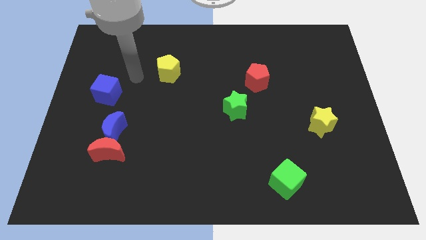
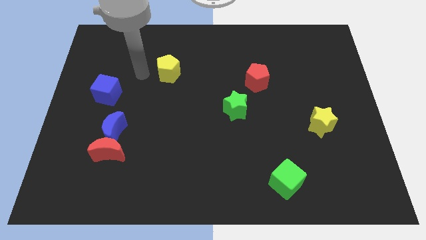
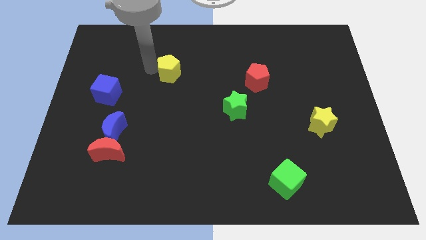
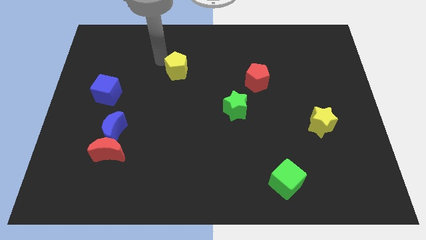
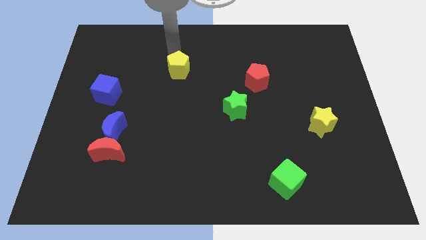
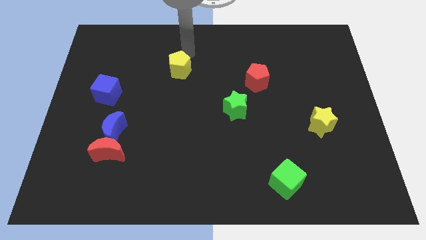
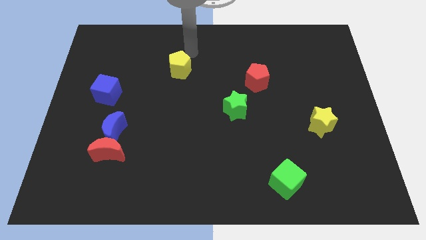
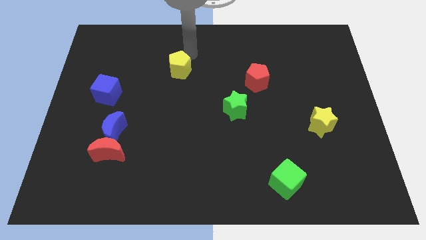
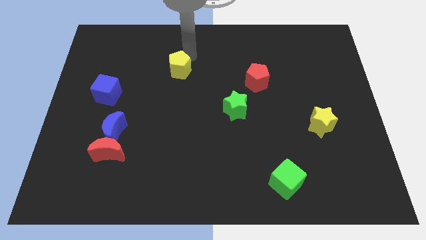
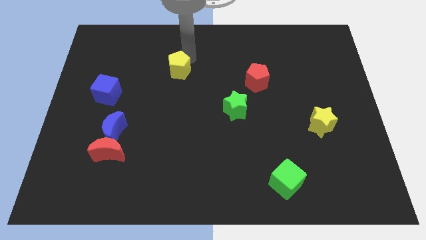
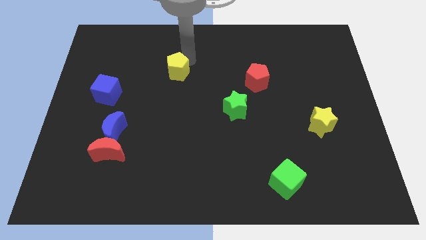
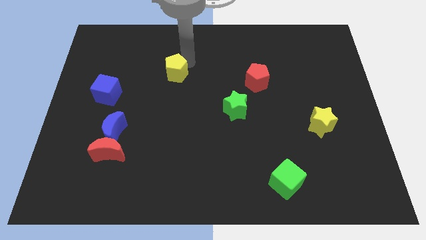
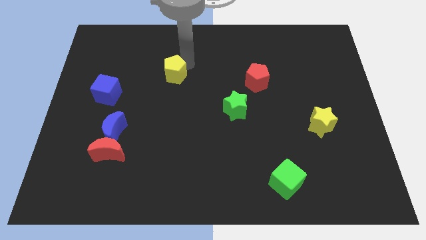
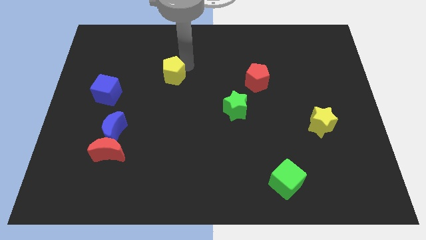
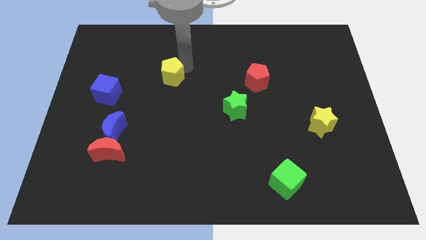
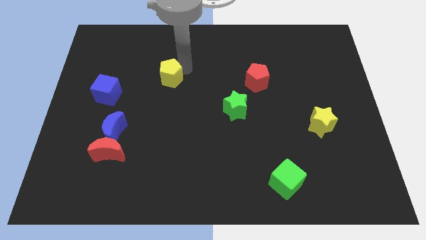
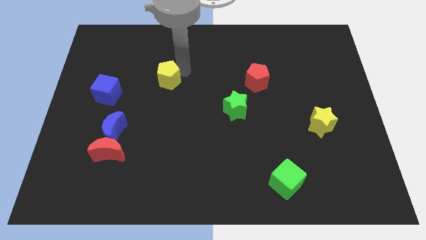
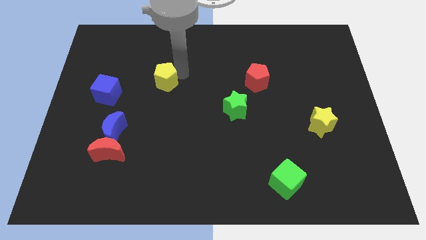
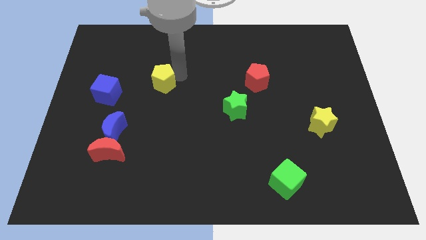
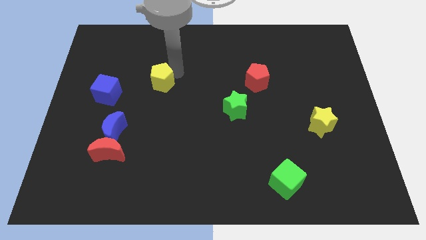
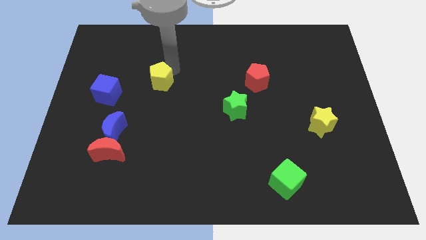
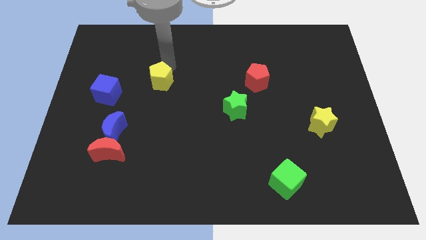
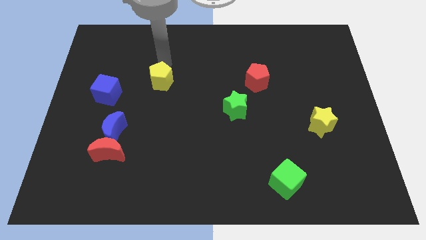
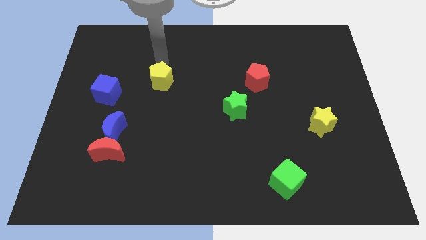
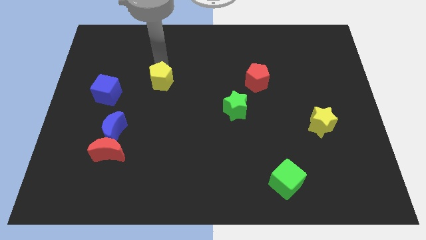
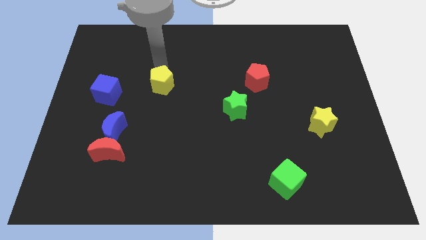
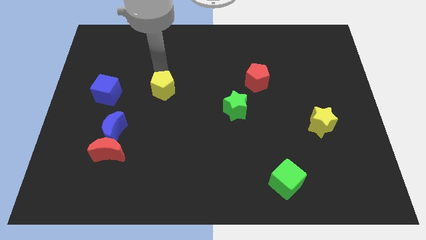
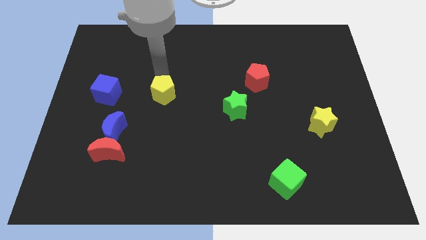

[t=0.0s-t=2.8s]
slightly slide the yellow pentagon downwards

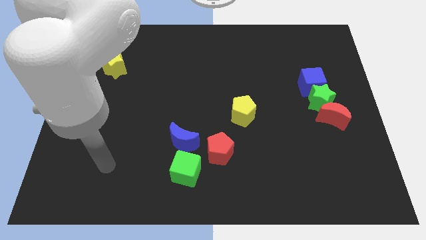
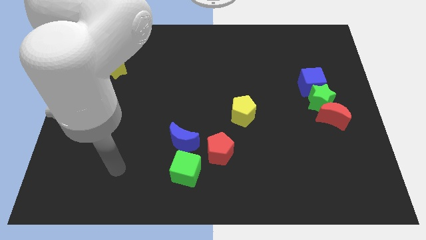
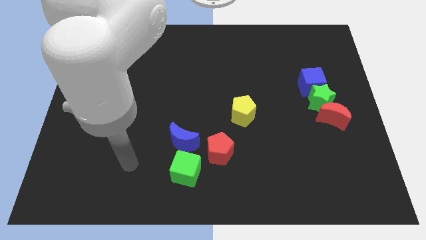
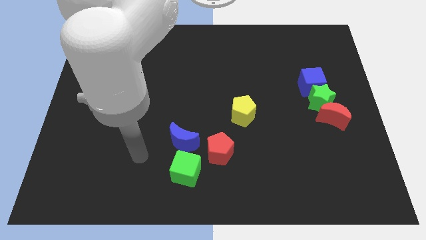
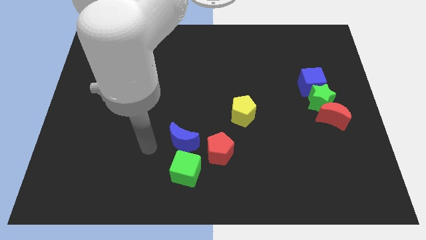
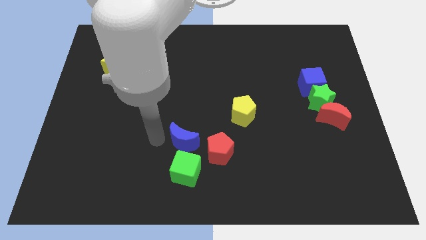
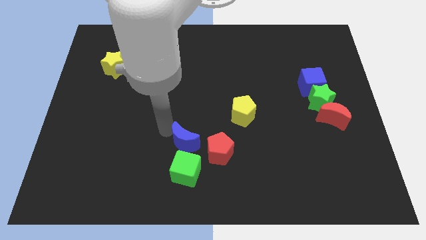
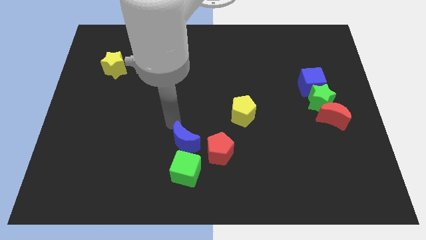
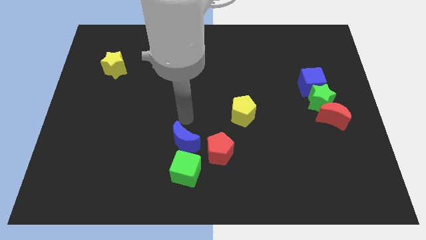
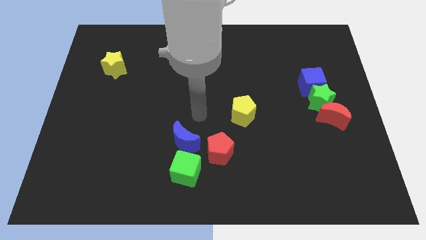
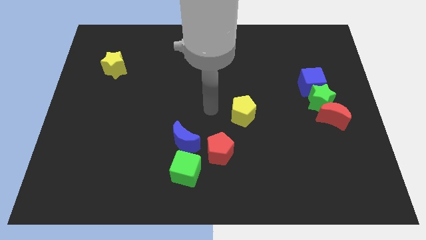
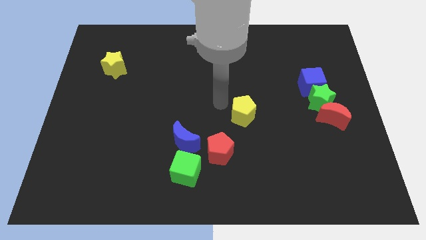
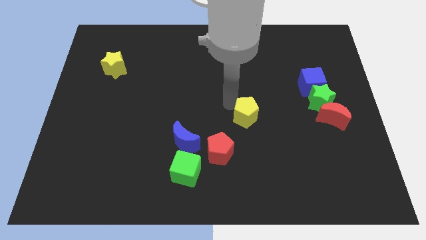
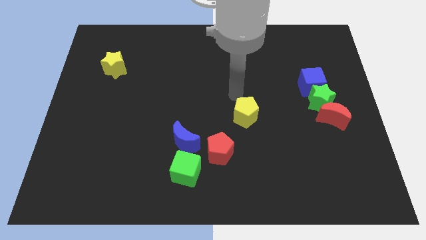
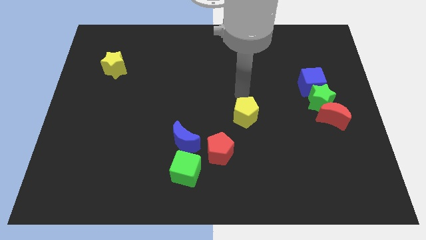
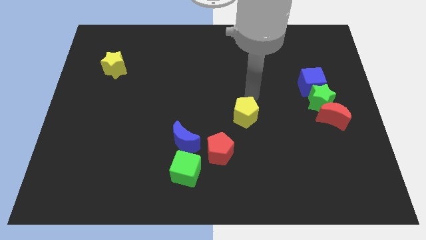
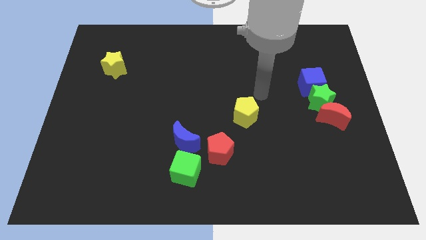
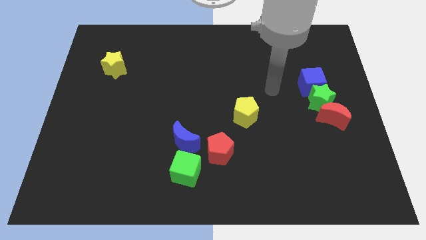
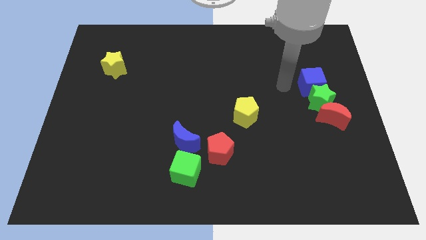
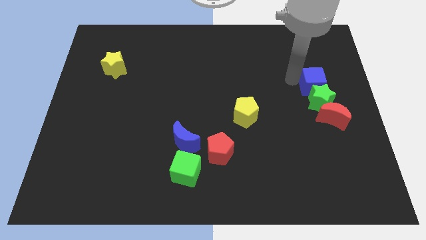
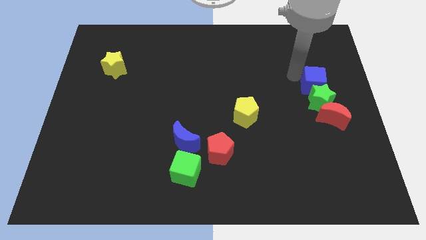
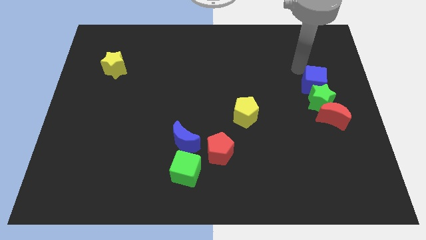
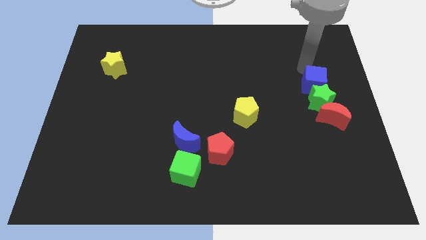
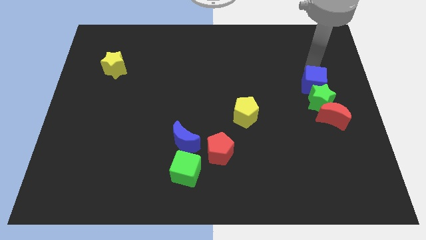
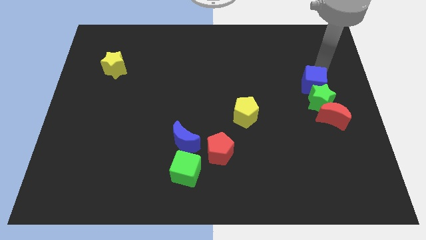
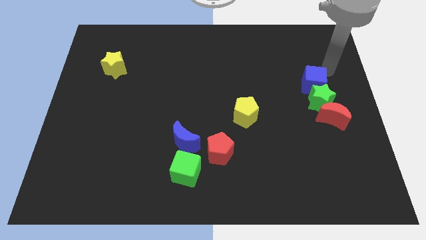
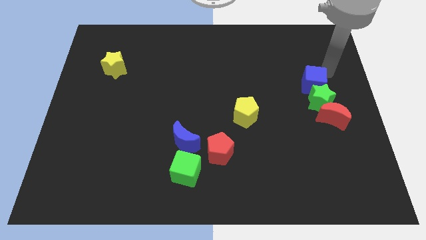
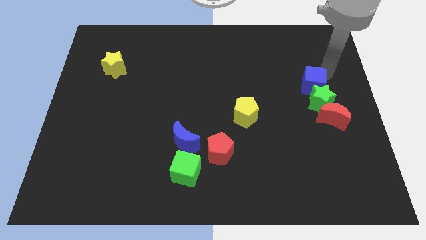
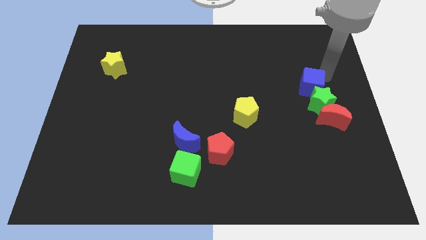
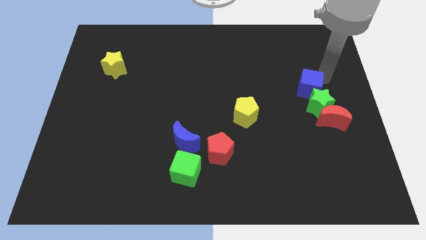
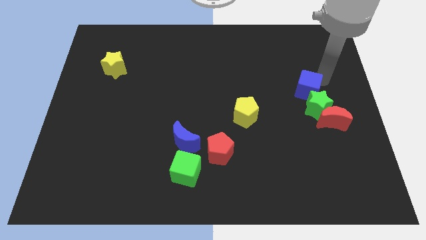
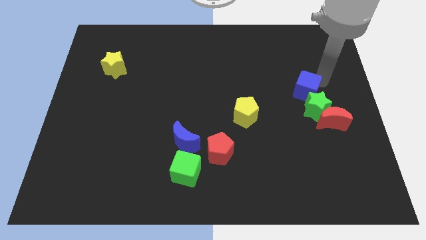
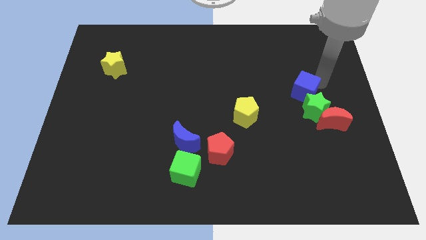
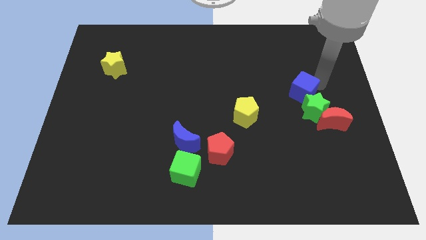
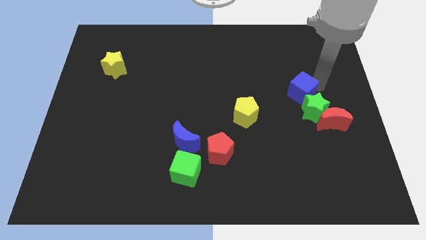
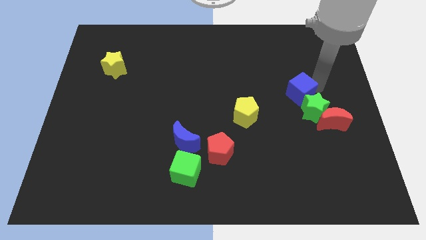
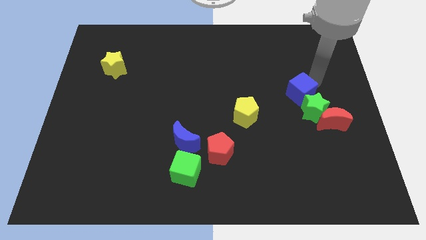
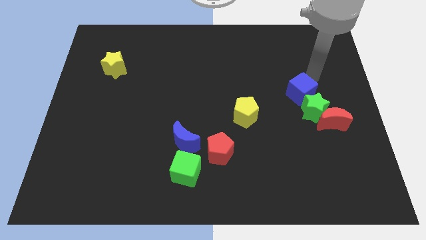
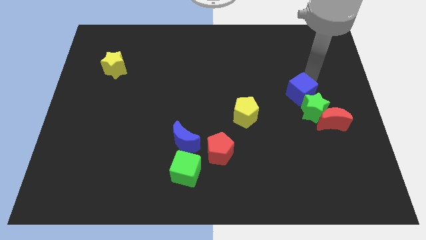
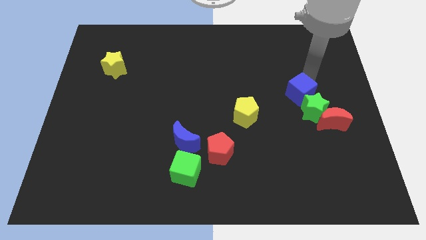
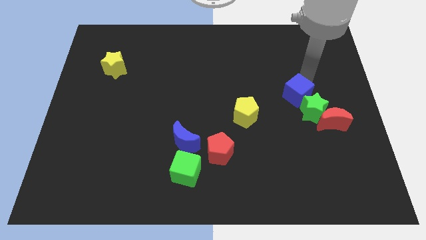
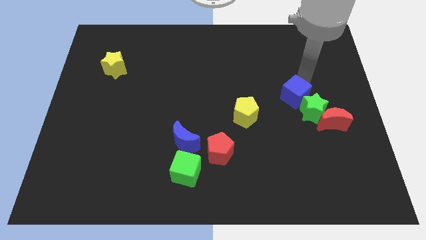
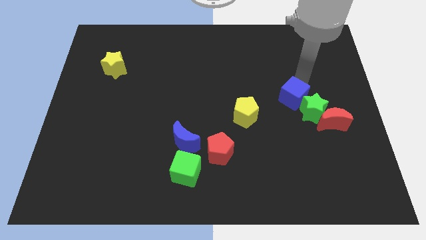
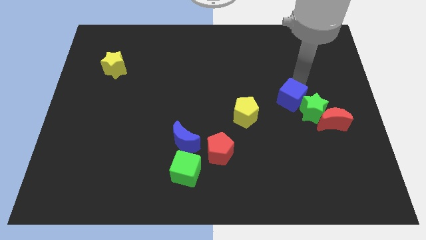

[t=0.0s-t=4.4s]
push the blue cube down and to the left a little bit

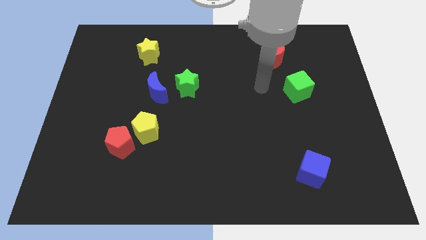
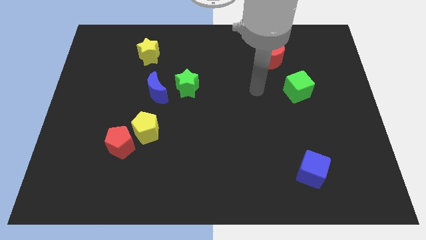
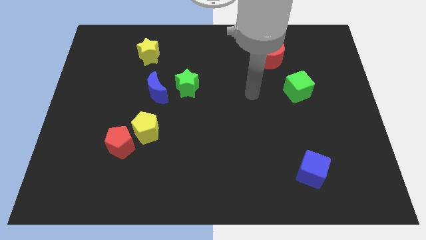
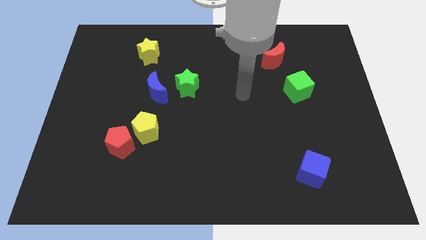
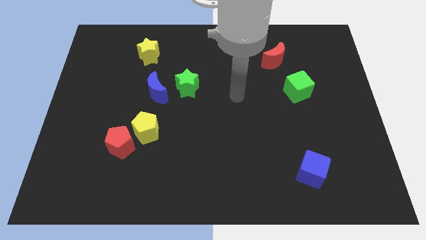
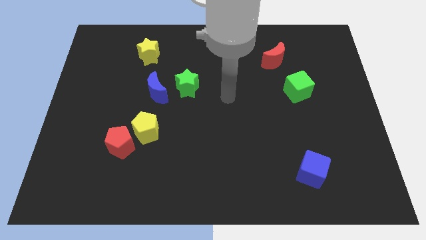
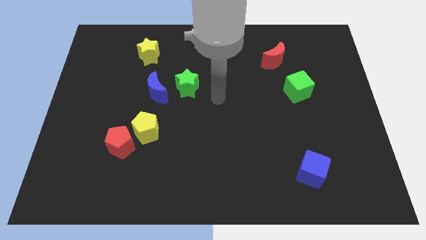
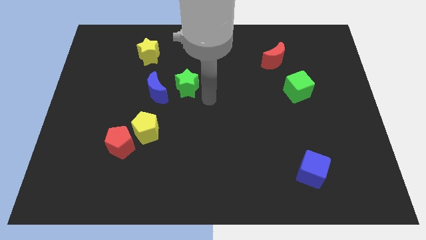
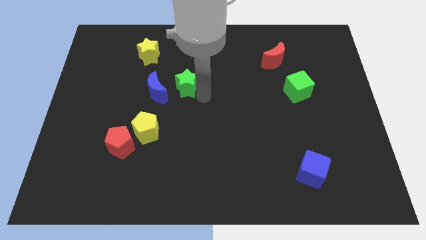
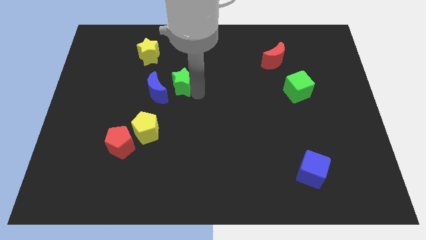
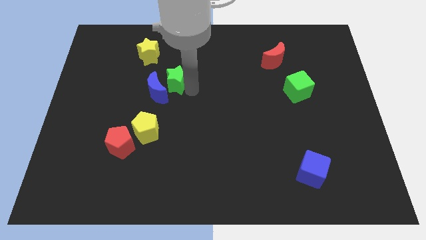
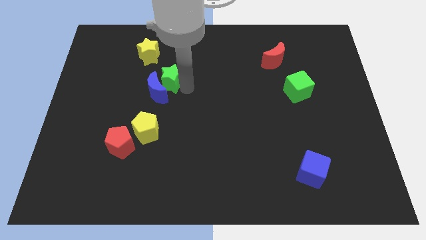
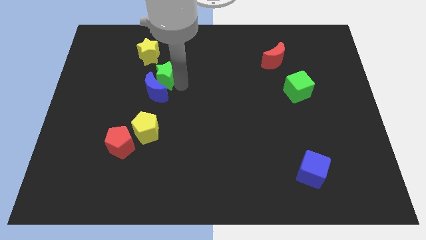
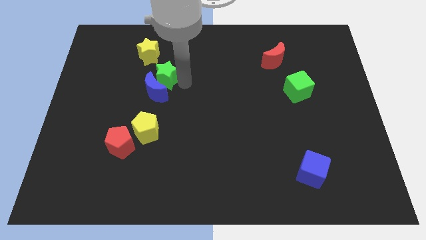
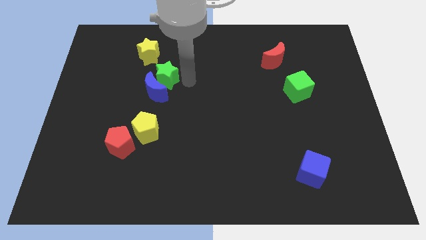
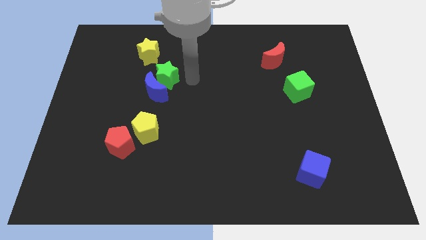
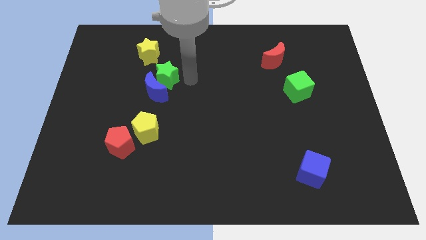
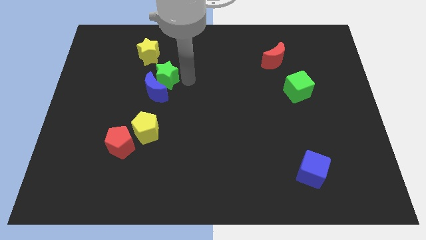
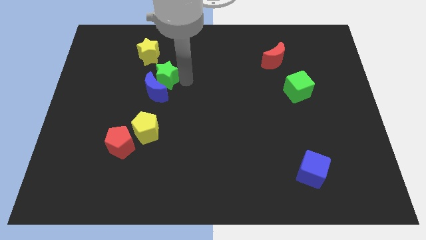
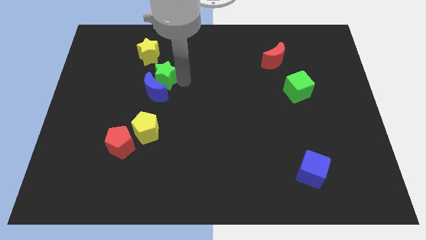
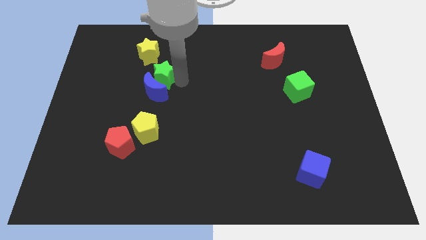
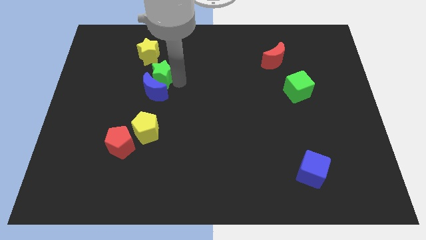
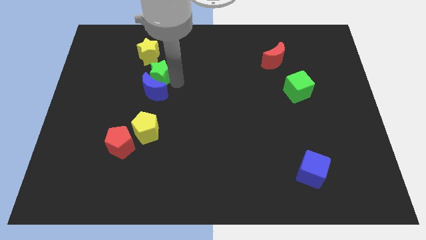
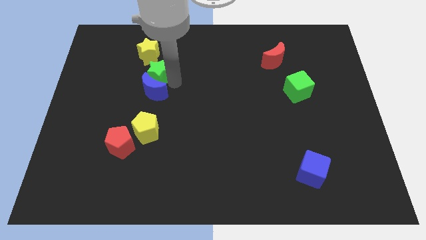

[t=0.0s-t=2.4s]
slightly slide the green star left
